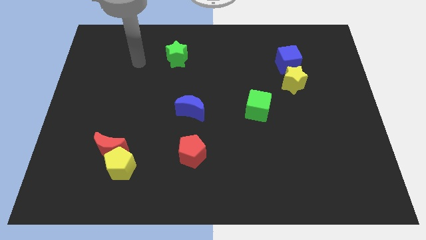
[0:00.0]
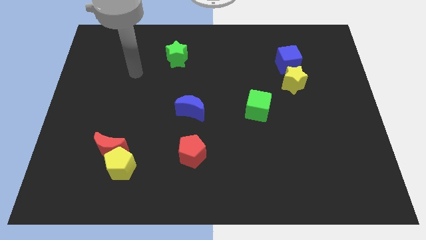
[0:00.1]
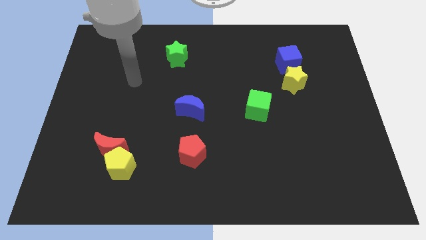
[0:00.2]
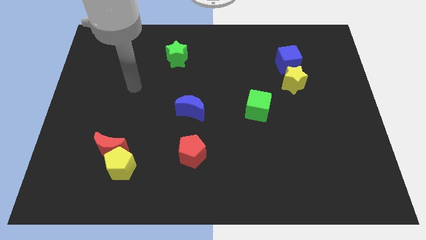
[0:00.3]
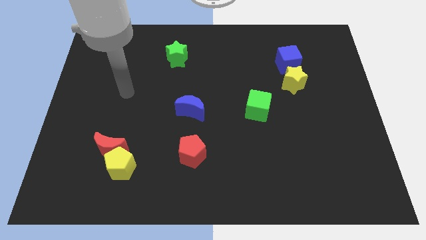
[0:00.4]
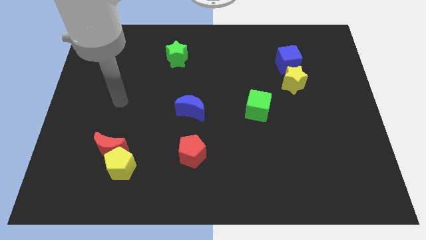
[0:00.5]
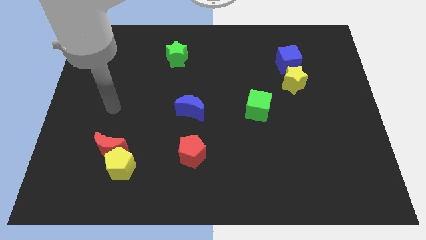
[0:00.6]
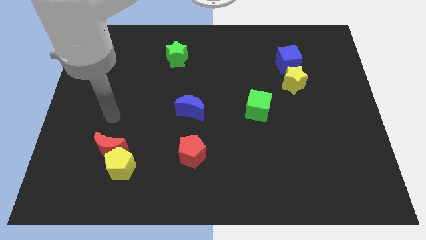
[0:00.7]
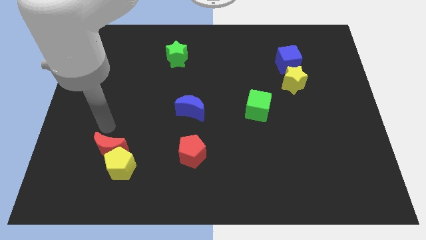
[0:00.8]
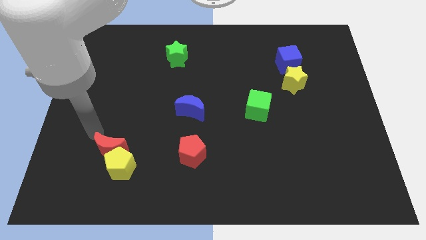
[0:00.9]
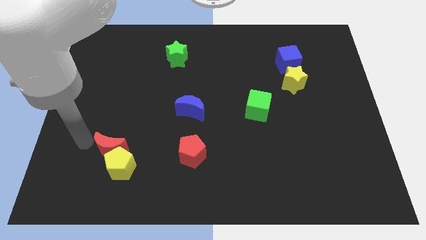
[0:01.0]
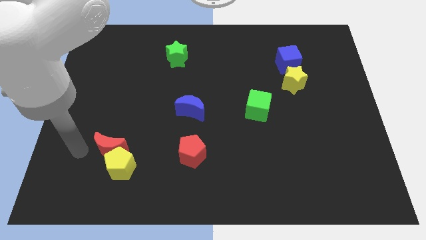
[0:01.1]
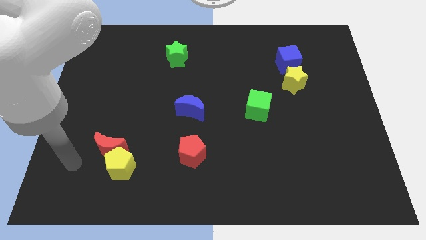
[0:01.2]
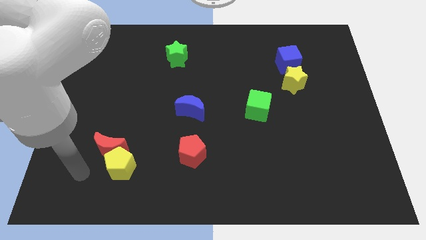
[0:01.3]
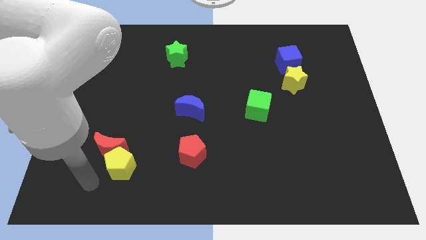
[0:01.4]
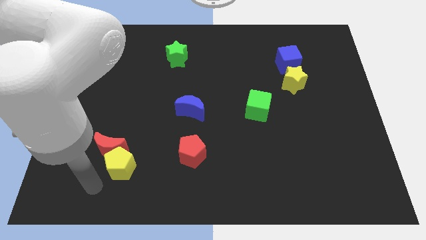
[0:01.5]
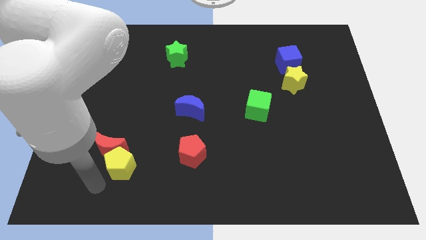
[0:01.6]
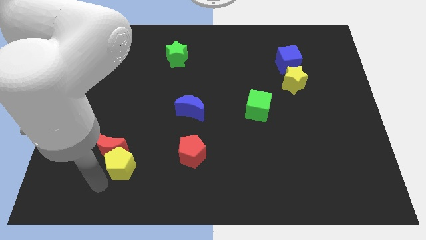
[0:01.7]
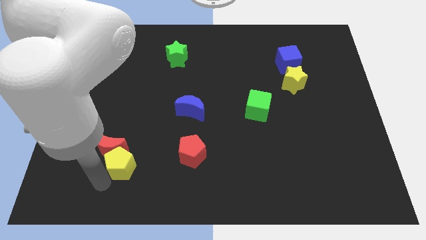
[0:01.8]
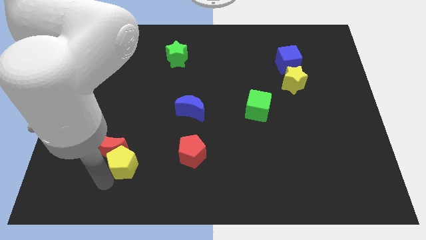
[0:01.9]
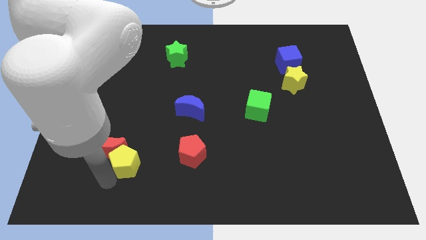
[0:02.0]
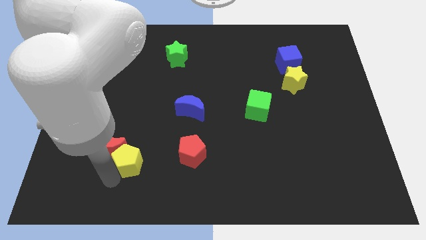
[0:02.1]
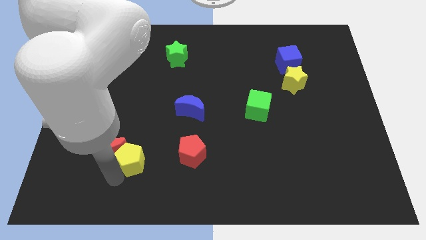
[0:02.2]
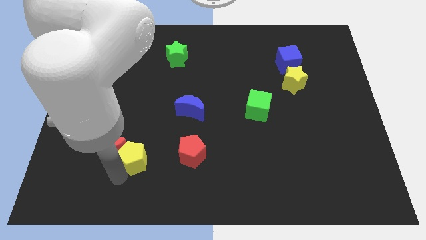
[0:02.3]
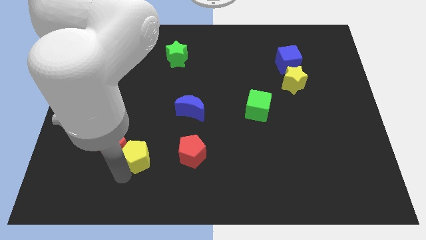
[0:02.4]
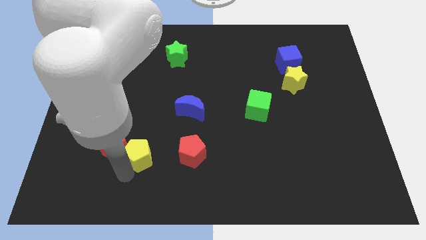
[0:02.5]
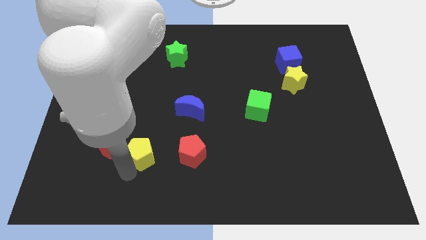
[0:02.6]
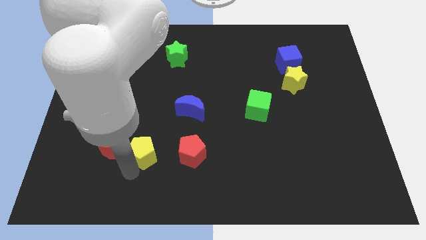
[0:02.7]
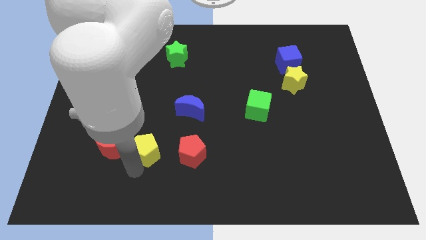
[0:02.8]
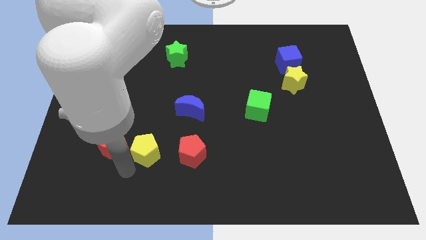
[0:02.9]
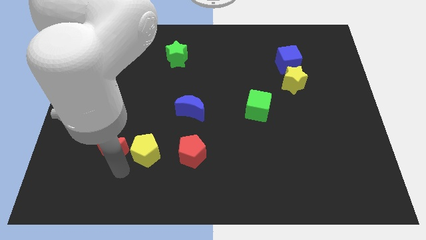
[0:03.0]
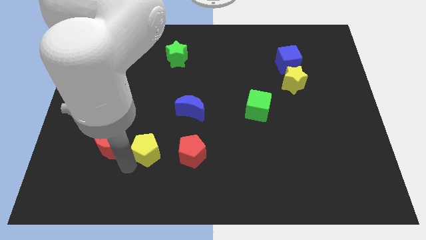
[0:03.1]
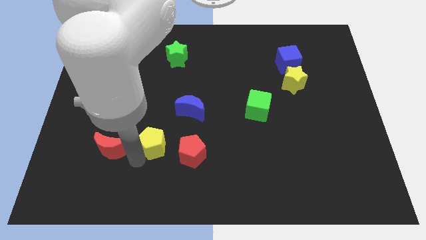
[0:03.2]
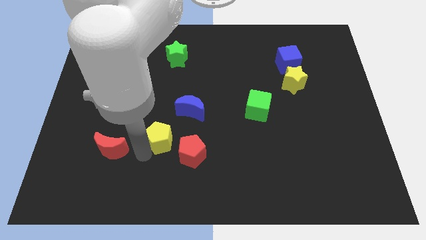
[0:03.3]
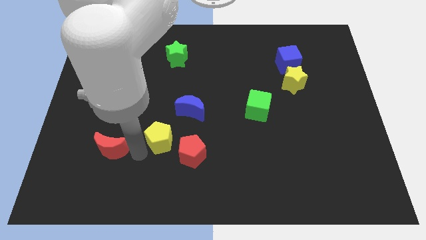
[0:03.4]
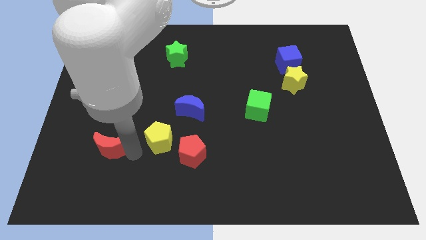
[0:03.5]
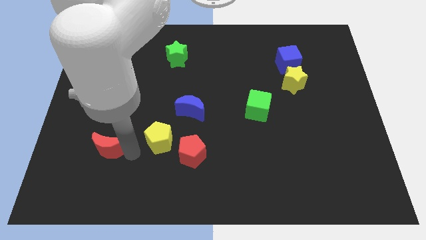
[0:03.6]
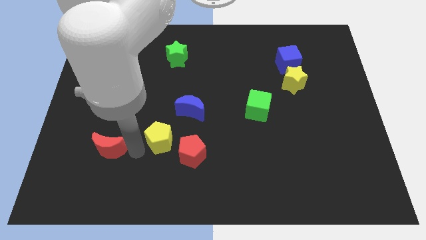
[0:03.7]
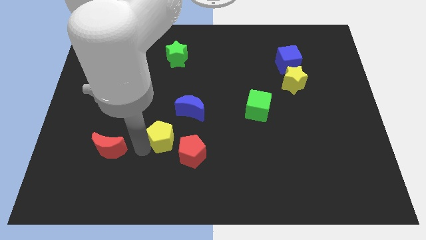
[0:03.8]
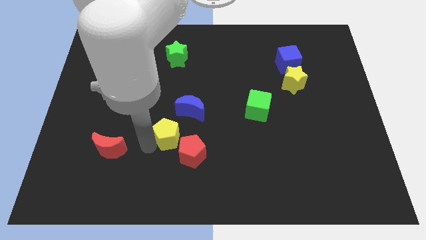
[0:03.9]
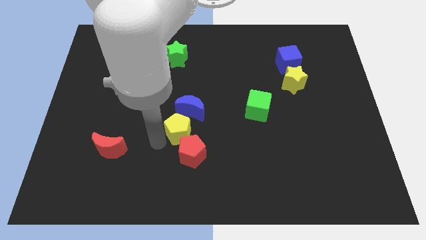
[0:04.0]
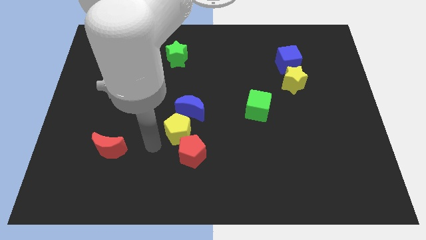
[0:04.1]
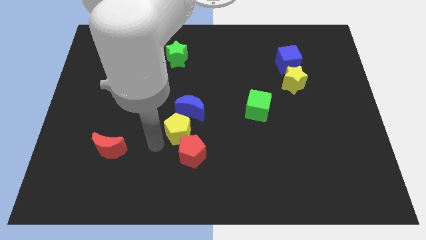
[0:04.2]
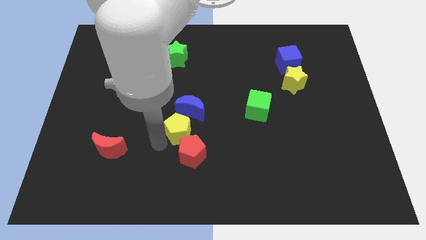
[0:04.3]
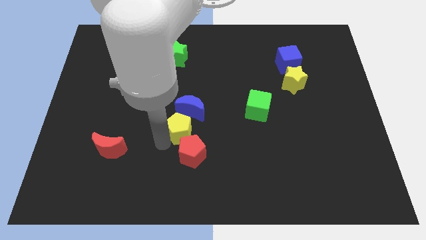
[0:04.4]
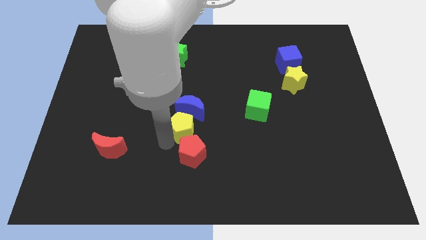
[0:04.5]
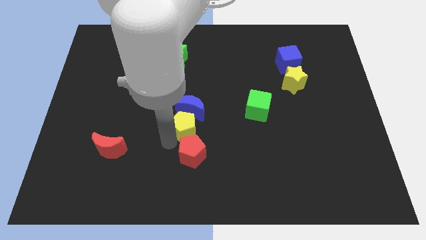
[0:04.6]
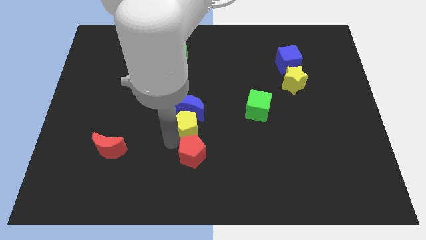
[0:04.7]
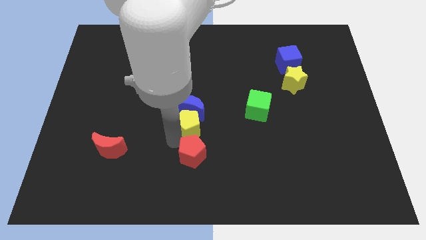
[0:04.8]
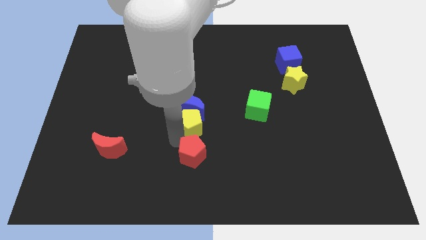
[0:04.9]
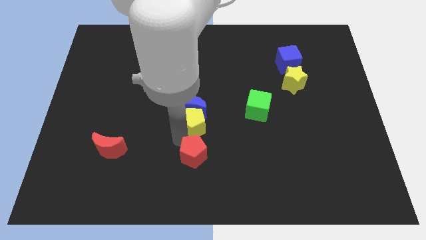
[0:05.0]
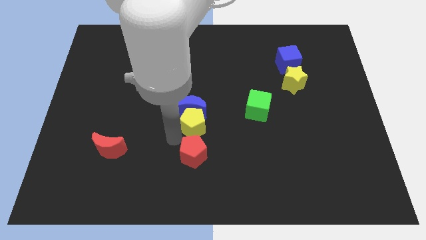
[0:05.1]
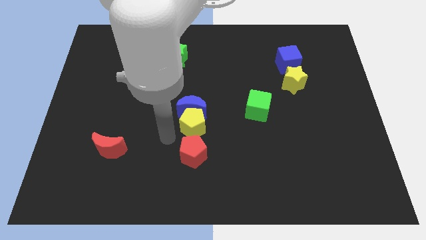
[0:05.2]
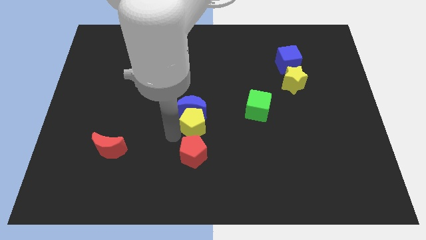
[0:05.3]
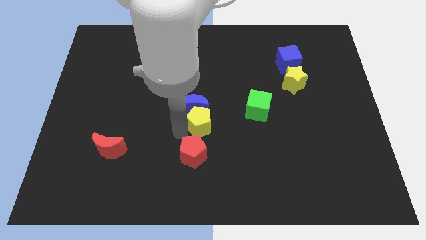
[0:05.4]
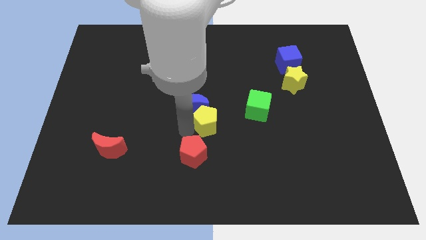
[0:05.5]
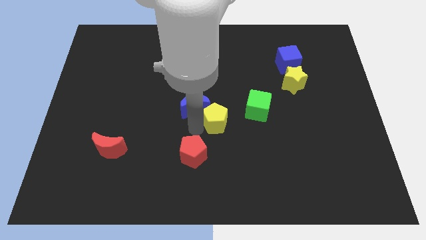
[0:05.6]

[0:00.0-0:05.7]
move the yellow pentagon to the right side of the blue moon

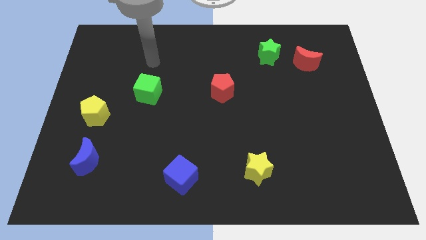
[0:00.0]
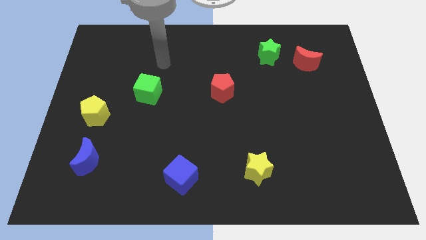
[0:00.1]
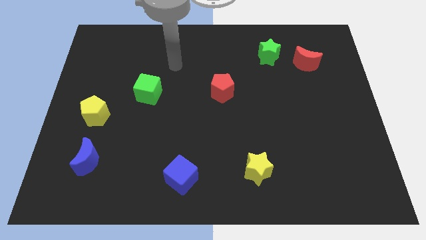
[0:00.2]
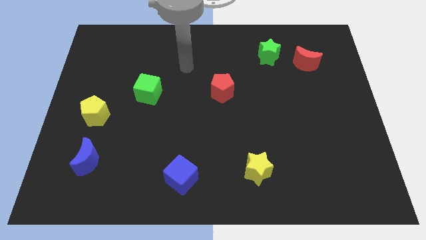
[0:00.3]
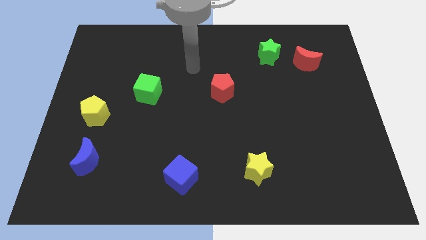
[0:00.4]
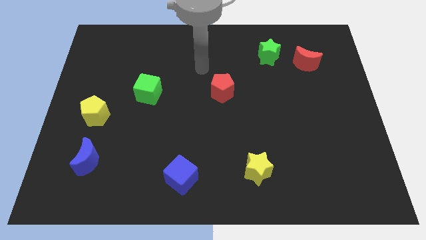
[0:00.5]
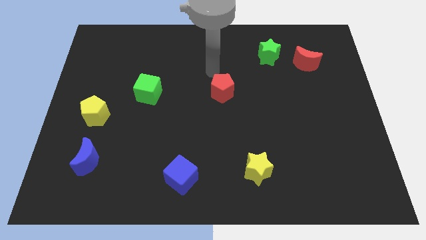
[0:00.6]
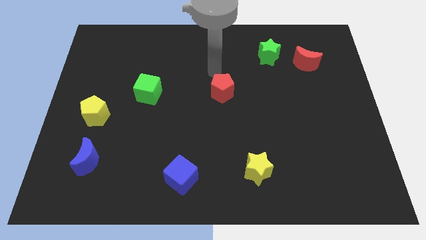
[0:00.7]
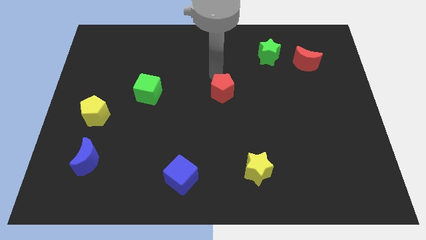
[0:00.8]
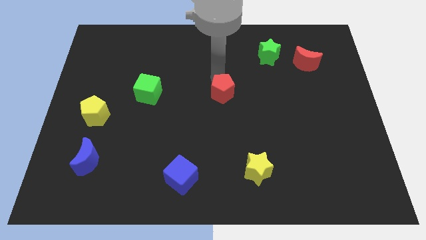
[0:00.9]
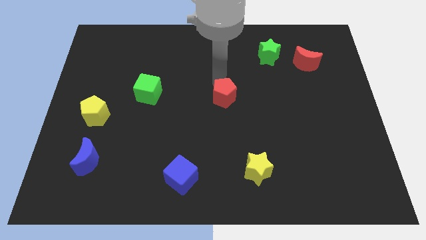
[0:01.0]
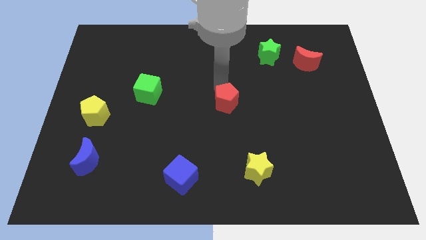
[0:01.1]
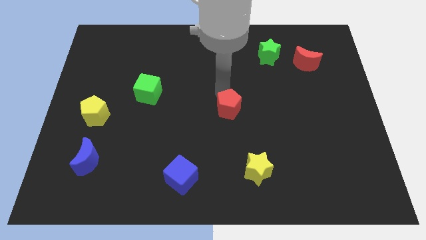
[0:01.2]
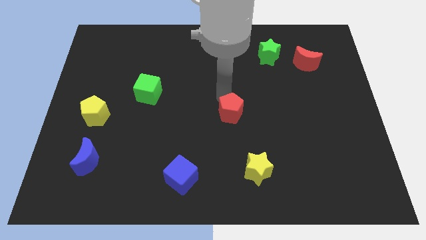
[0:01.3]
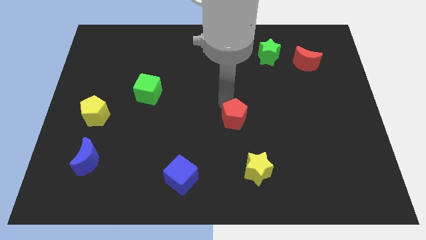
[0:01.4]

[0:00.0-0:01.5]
slide the red pentagon above the yellow star

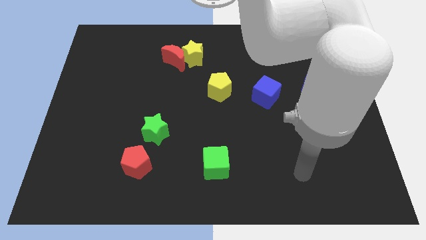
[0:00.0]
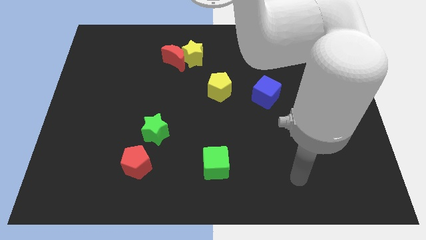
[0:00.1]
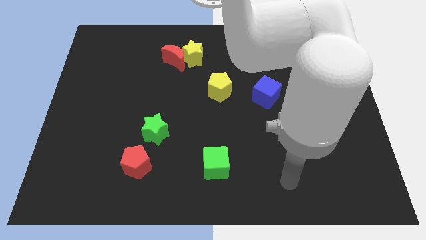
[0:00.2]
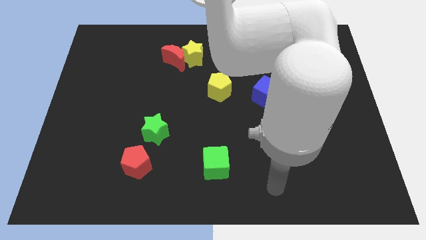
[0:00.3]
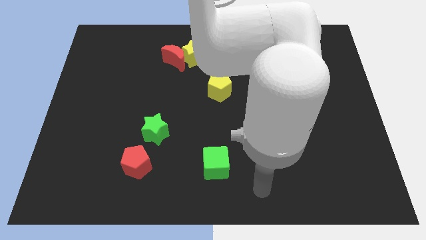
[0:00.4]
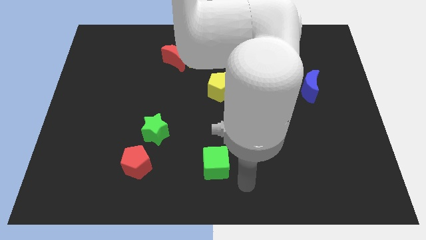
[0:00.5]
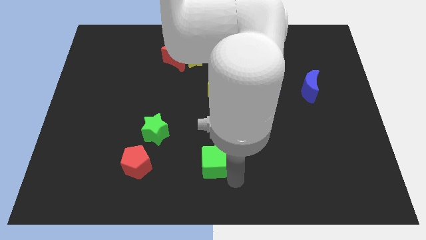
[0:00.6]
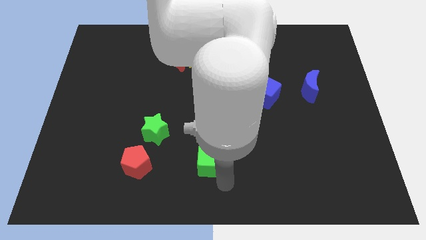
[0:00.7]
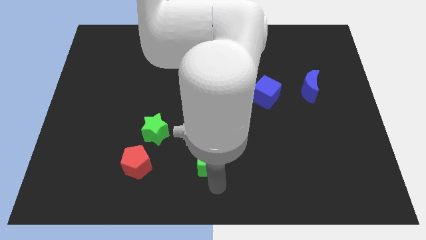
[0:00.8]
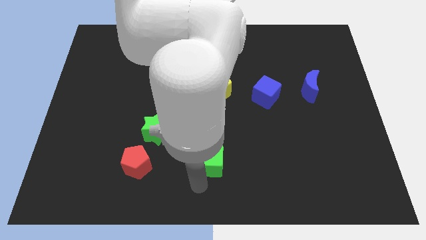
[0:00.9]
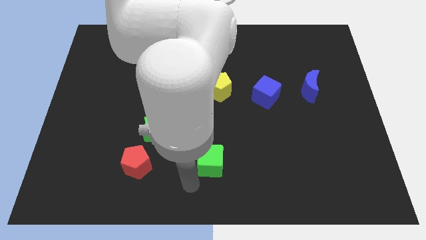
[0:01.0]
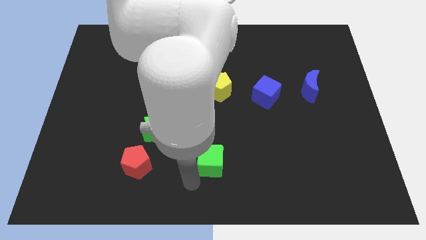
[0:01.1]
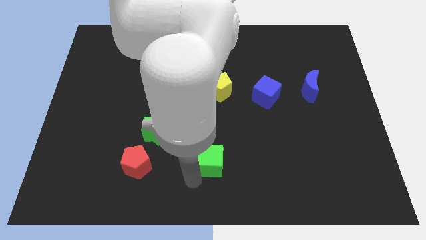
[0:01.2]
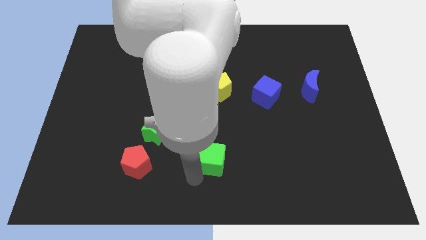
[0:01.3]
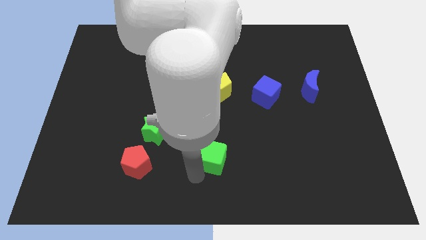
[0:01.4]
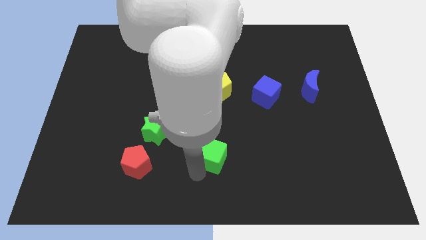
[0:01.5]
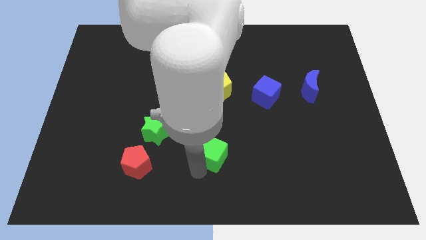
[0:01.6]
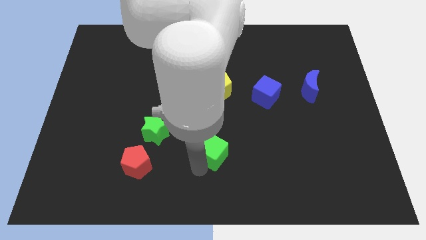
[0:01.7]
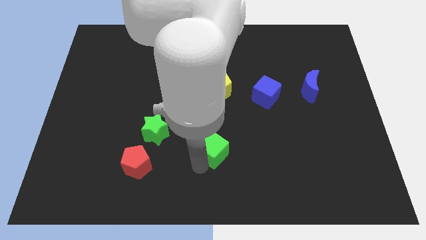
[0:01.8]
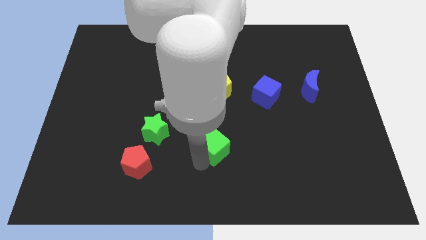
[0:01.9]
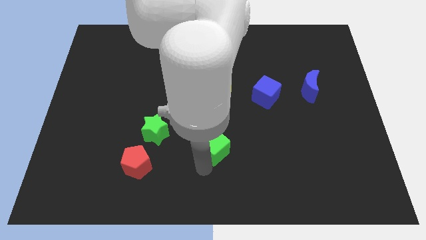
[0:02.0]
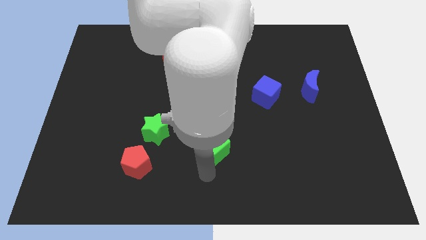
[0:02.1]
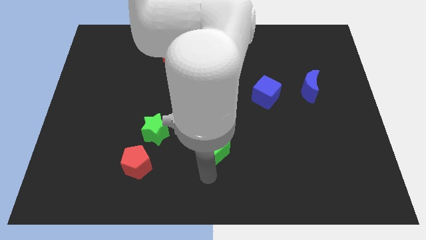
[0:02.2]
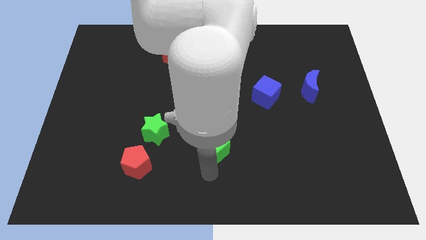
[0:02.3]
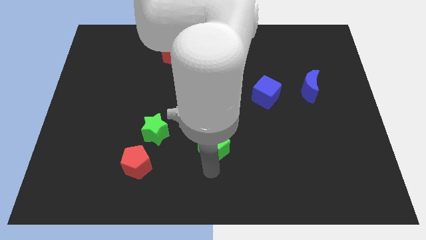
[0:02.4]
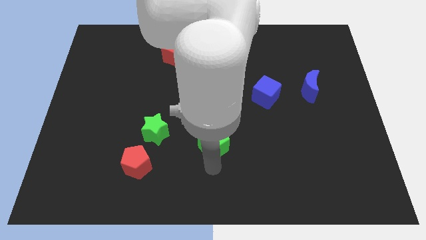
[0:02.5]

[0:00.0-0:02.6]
put the green cube to the bottom side of the yellow pentagon
